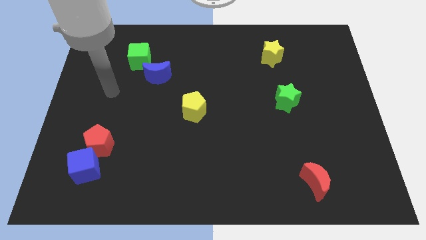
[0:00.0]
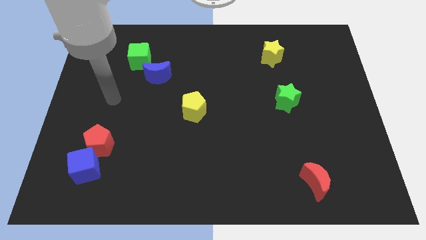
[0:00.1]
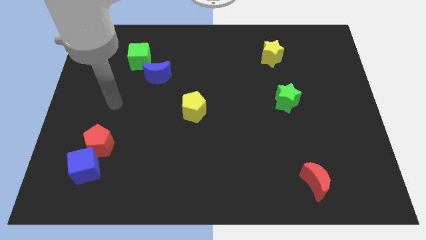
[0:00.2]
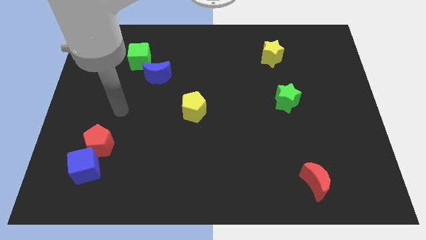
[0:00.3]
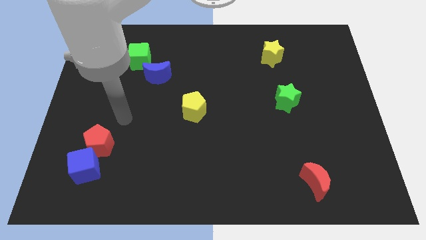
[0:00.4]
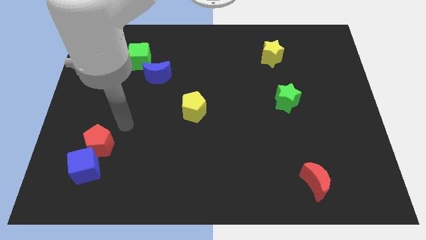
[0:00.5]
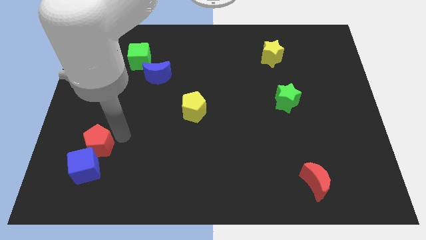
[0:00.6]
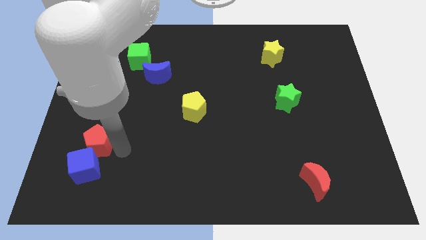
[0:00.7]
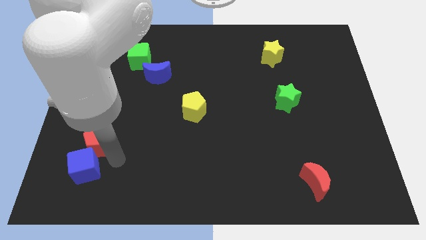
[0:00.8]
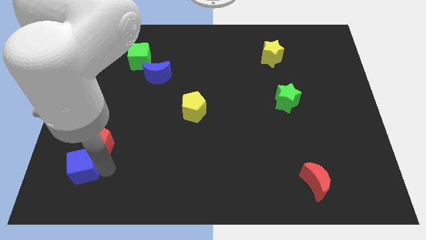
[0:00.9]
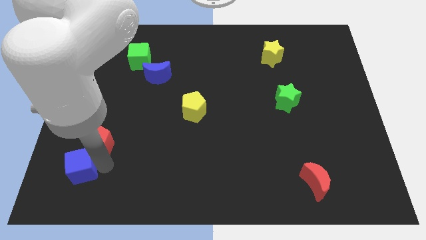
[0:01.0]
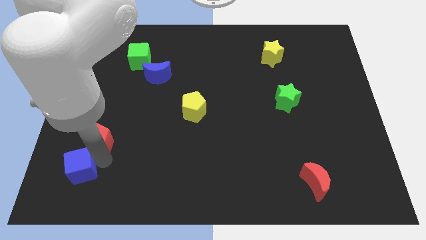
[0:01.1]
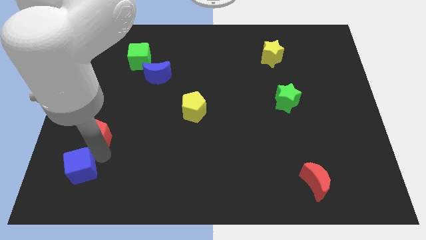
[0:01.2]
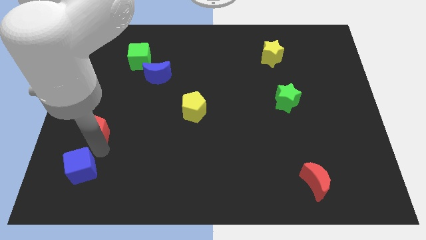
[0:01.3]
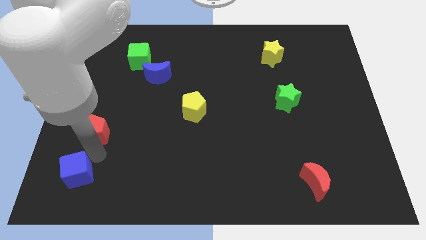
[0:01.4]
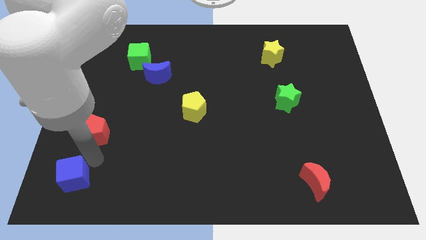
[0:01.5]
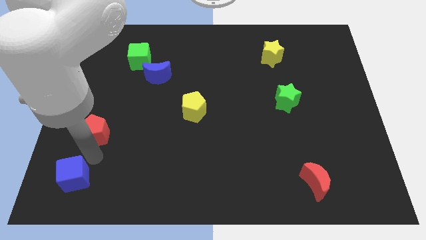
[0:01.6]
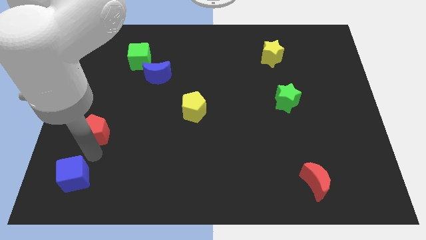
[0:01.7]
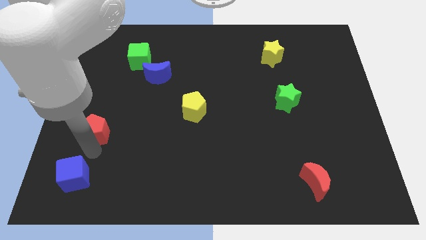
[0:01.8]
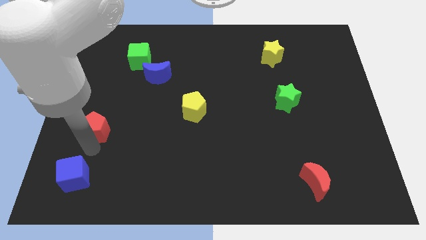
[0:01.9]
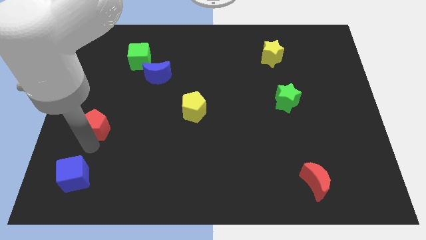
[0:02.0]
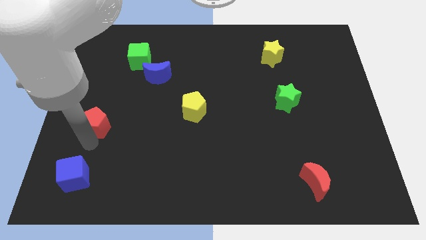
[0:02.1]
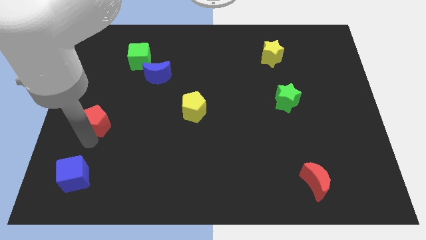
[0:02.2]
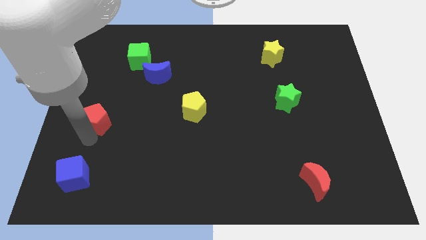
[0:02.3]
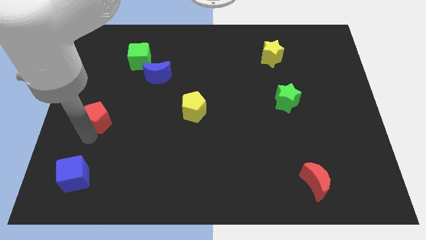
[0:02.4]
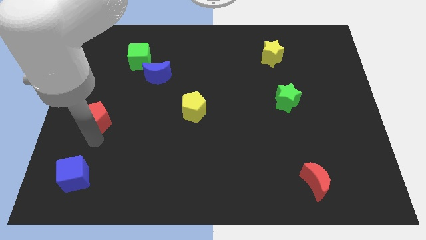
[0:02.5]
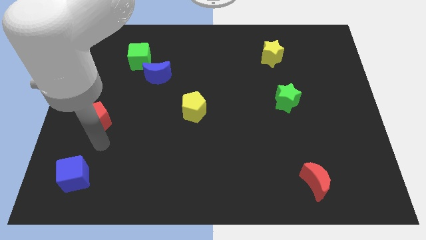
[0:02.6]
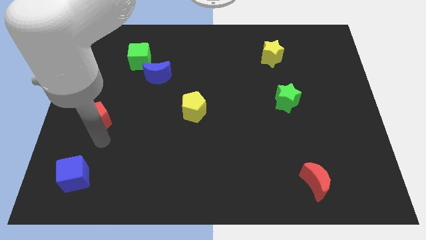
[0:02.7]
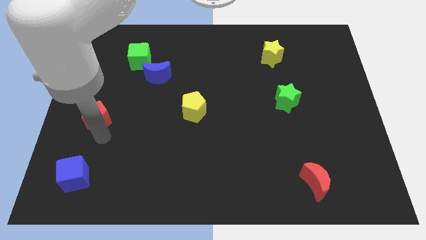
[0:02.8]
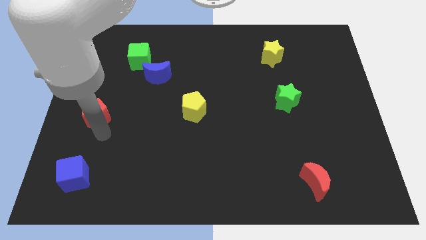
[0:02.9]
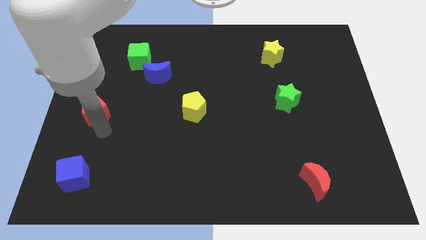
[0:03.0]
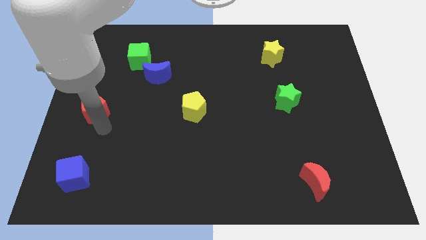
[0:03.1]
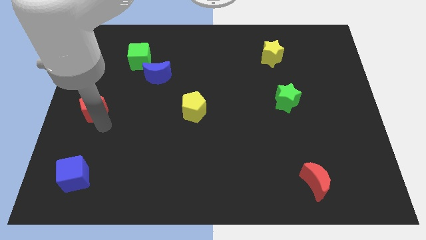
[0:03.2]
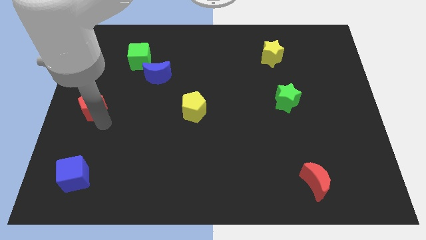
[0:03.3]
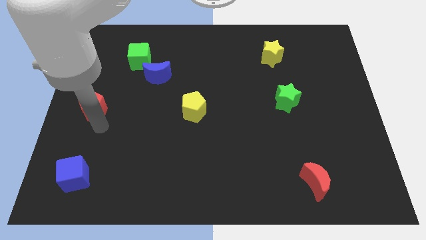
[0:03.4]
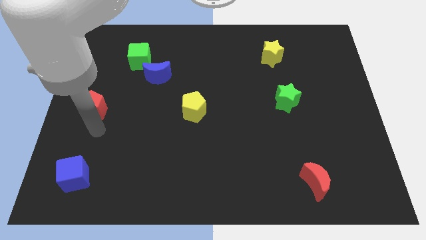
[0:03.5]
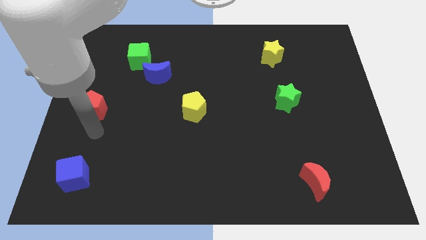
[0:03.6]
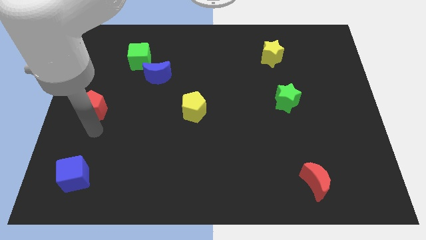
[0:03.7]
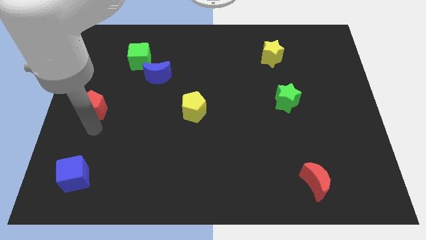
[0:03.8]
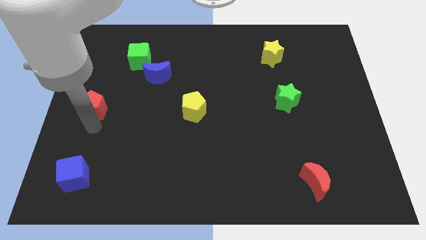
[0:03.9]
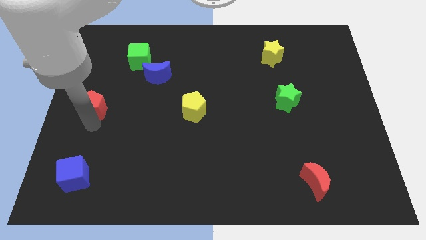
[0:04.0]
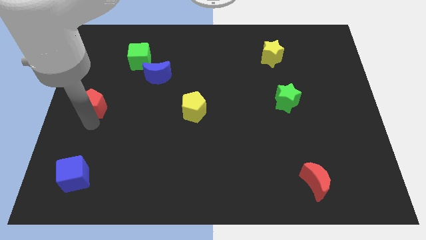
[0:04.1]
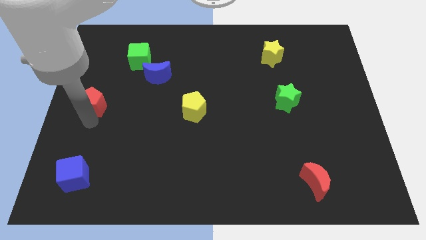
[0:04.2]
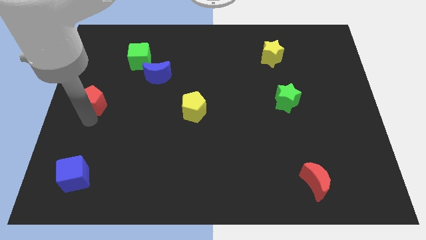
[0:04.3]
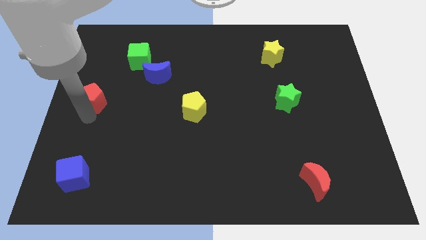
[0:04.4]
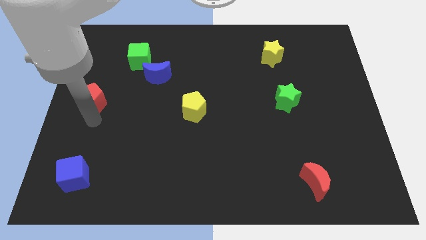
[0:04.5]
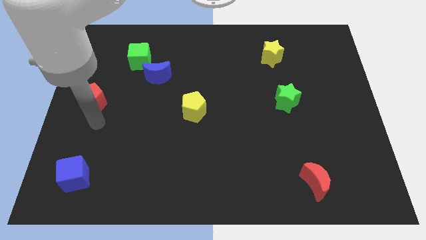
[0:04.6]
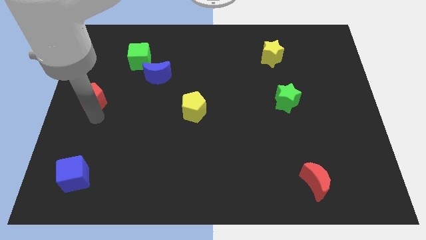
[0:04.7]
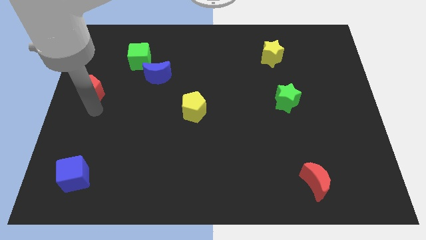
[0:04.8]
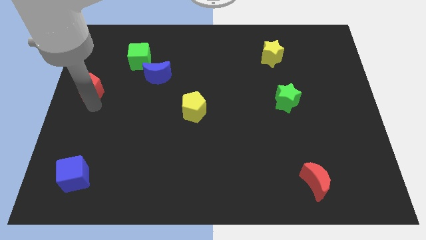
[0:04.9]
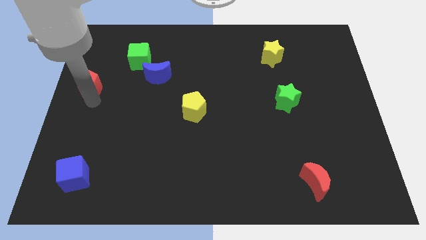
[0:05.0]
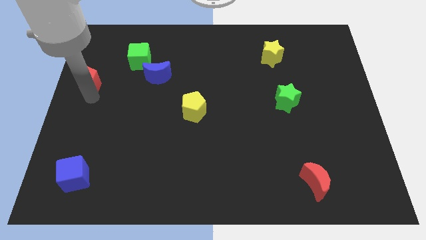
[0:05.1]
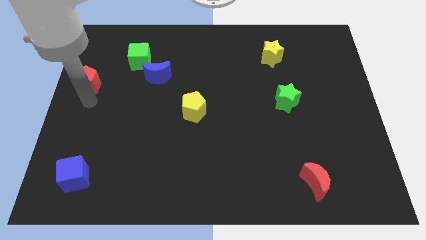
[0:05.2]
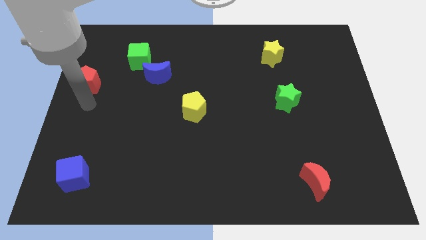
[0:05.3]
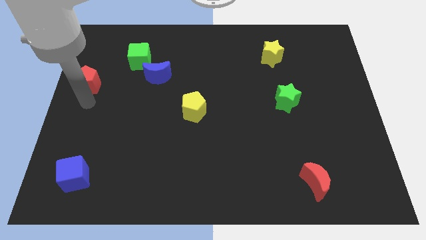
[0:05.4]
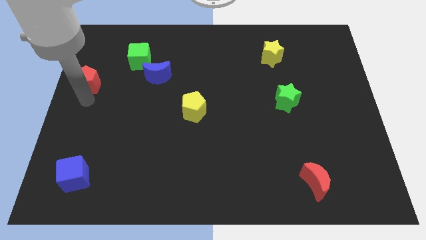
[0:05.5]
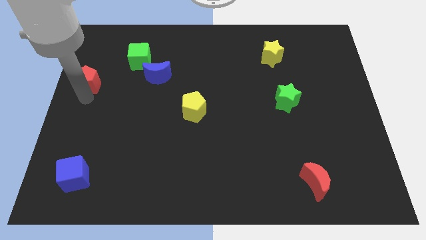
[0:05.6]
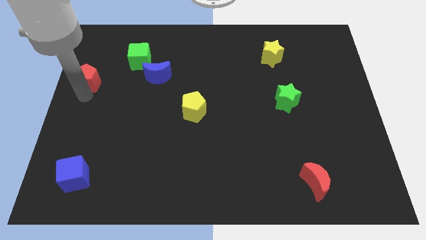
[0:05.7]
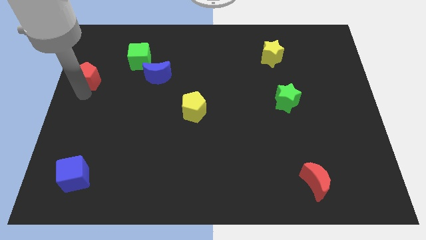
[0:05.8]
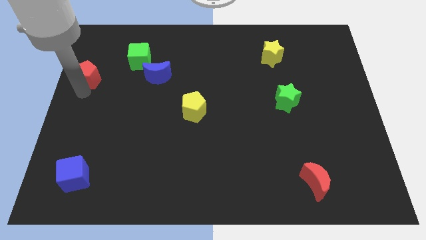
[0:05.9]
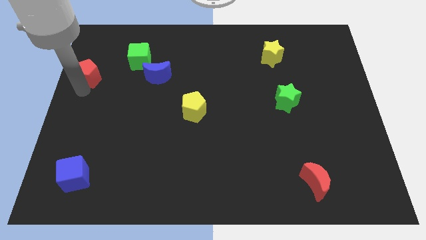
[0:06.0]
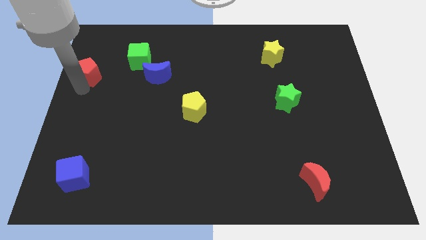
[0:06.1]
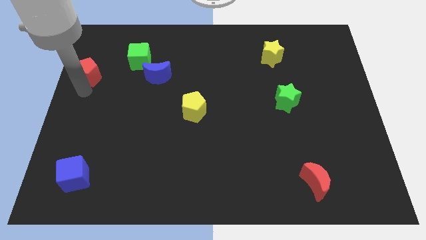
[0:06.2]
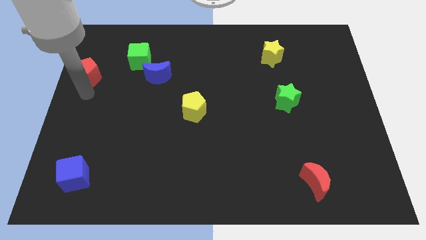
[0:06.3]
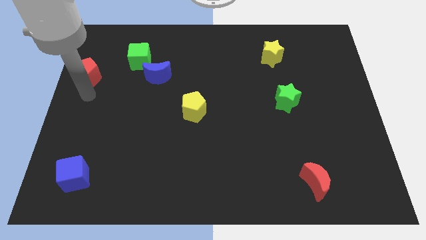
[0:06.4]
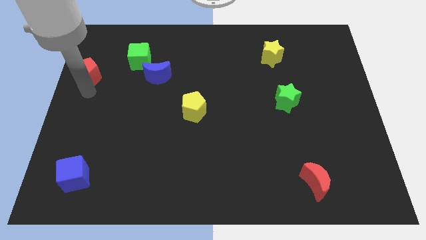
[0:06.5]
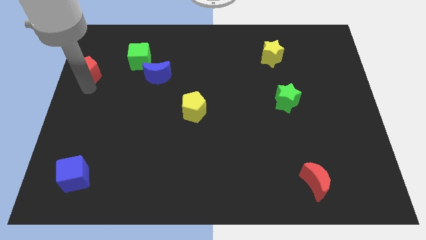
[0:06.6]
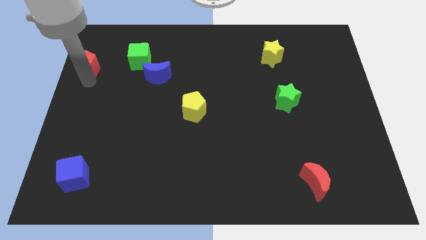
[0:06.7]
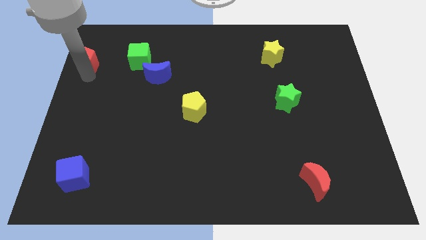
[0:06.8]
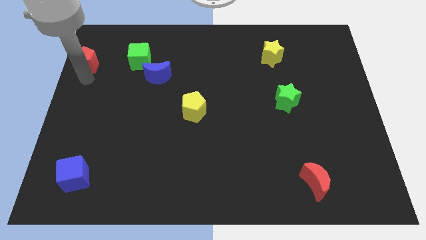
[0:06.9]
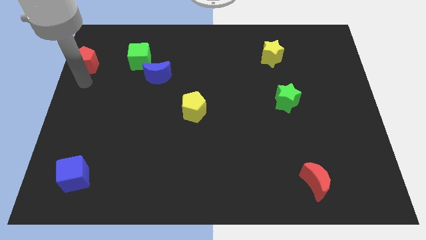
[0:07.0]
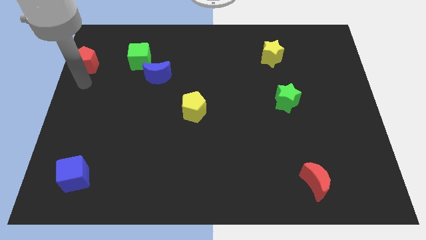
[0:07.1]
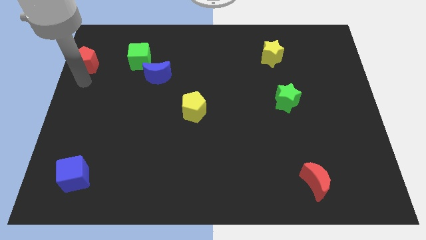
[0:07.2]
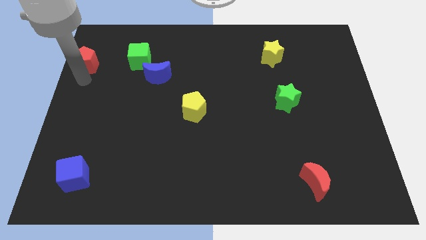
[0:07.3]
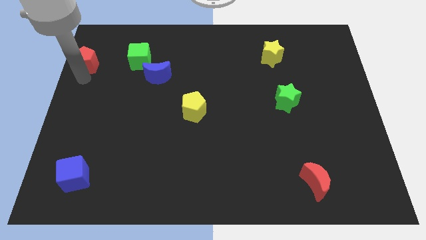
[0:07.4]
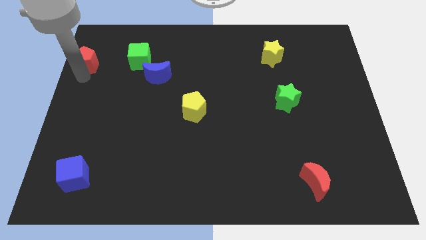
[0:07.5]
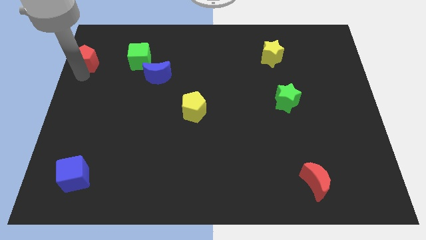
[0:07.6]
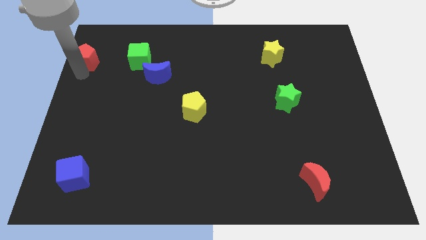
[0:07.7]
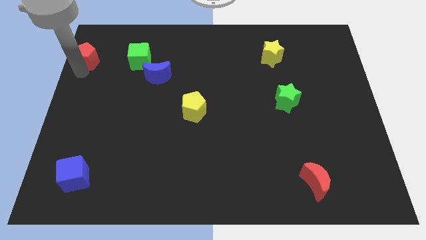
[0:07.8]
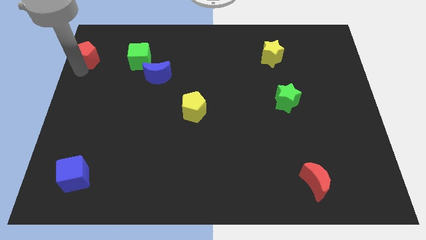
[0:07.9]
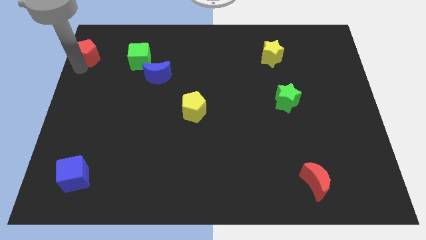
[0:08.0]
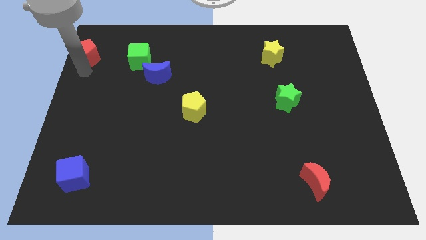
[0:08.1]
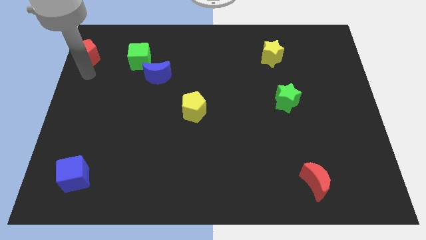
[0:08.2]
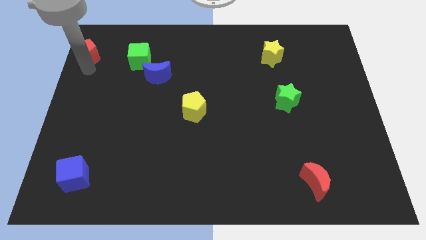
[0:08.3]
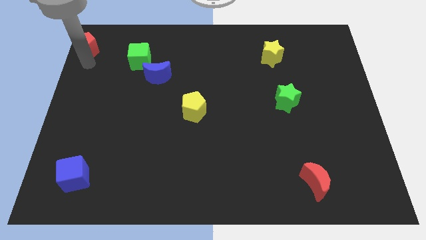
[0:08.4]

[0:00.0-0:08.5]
push the red pentagon to the top left corner
